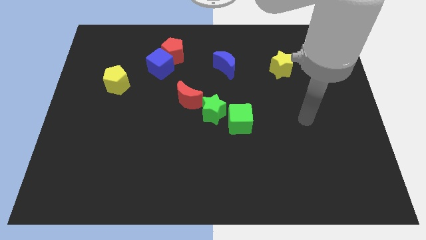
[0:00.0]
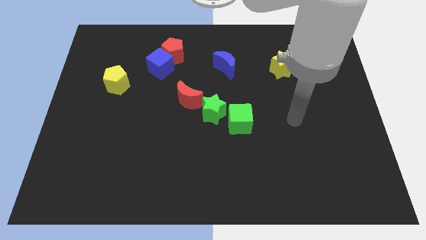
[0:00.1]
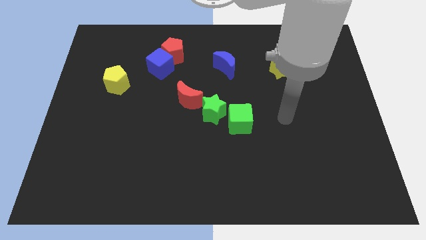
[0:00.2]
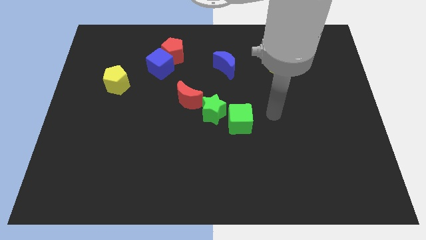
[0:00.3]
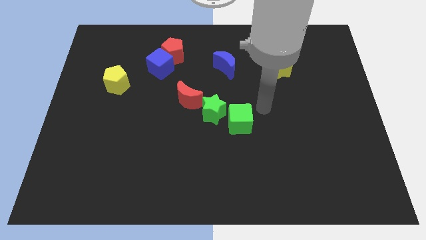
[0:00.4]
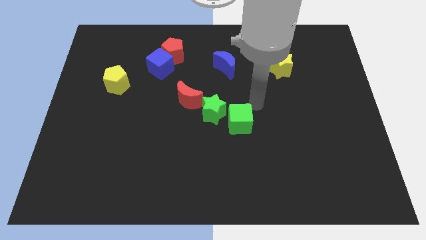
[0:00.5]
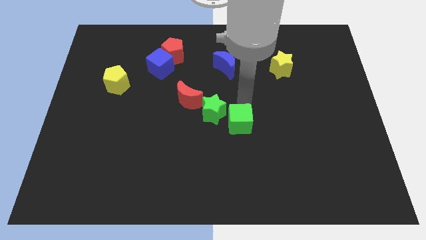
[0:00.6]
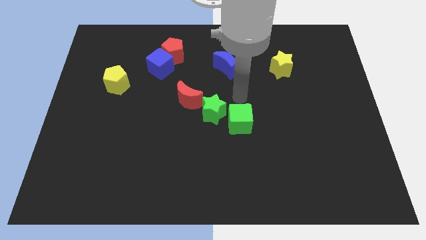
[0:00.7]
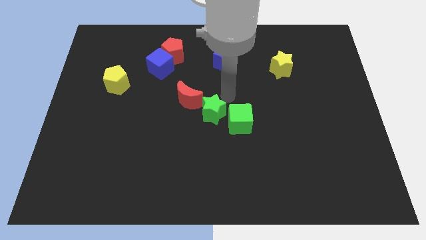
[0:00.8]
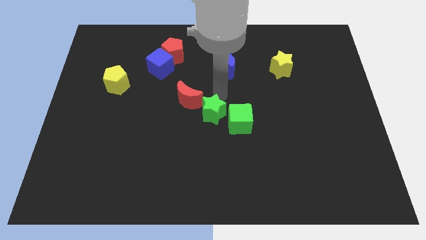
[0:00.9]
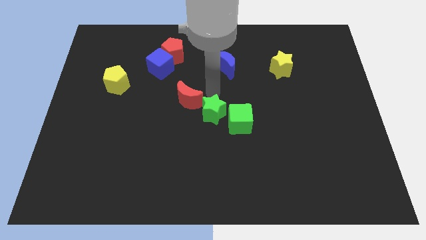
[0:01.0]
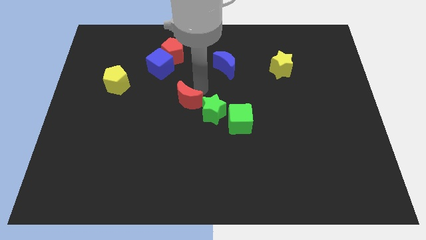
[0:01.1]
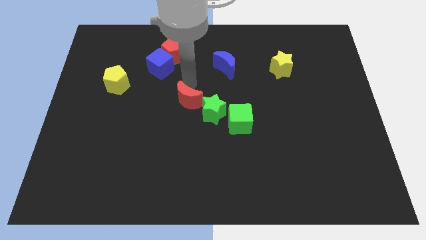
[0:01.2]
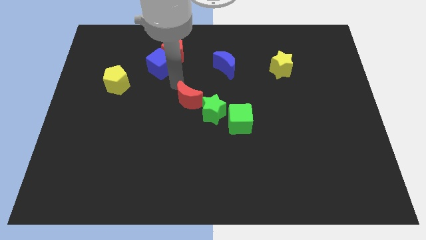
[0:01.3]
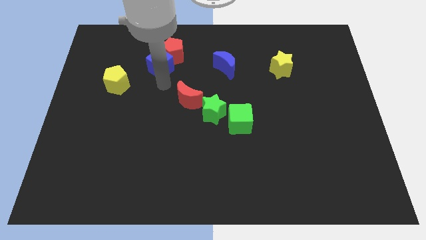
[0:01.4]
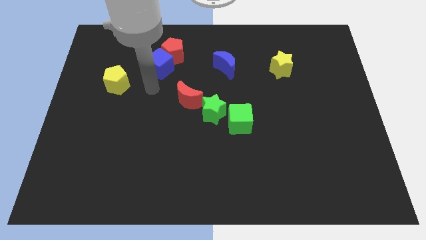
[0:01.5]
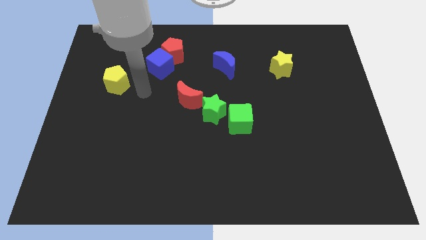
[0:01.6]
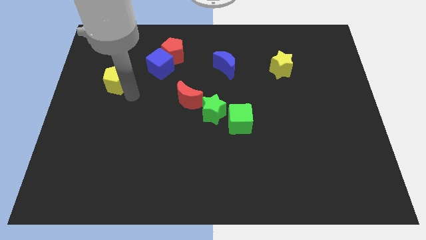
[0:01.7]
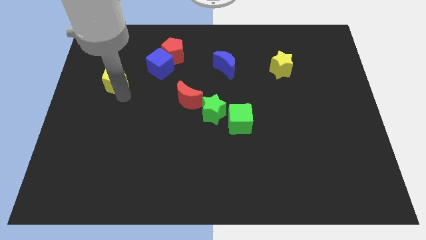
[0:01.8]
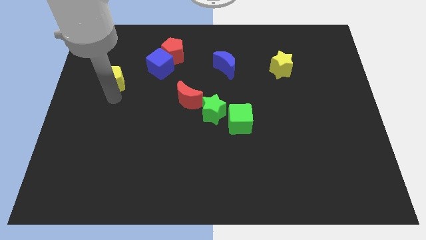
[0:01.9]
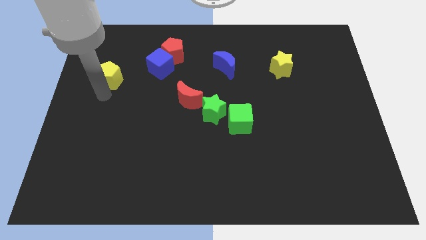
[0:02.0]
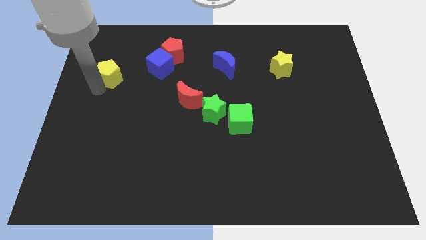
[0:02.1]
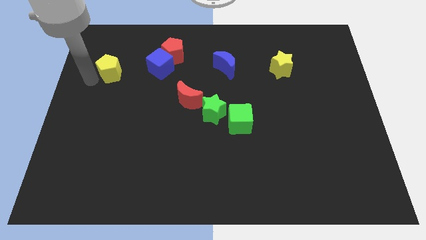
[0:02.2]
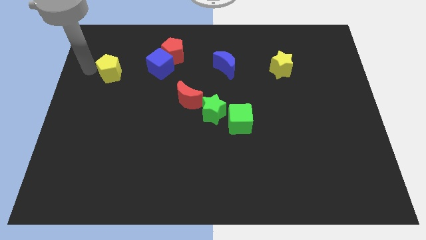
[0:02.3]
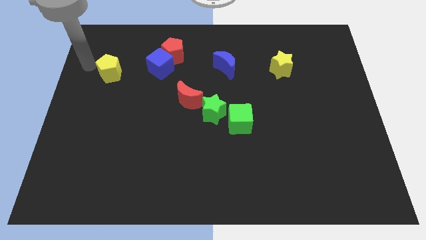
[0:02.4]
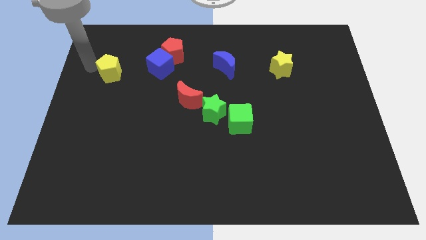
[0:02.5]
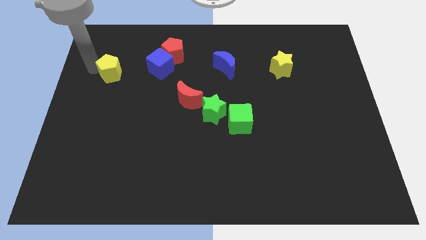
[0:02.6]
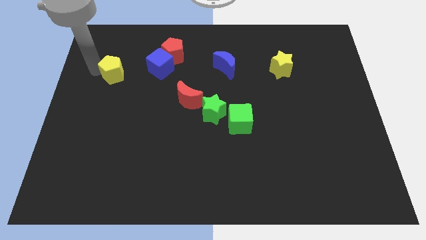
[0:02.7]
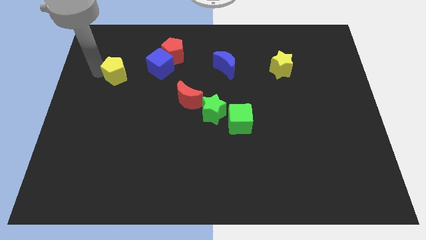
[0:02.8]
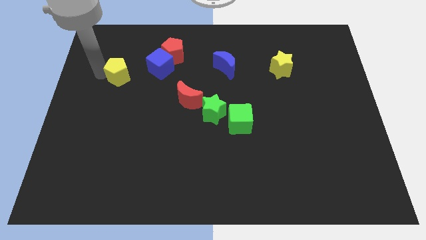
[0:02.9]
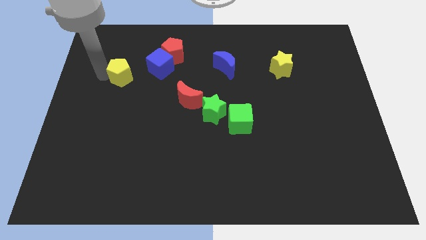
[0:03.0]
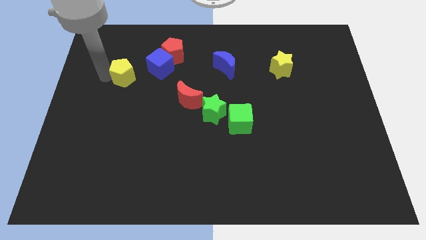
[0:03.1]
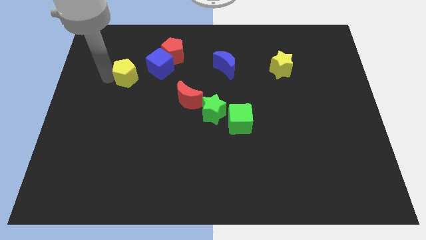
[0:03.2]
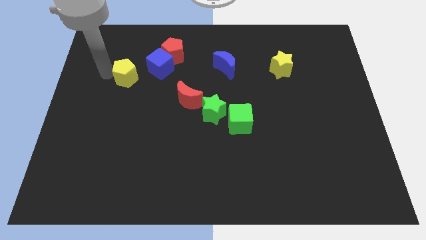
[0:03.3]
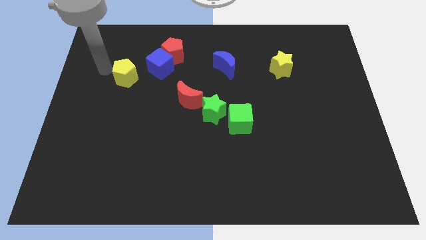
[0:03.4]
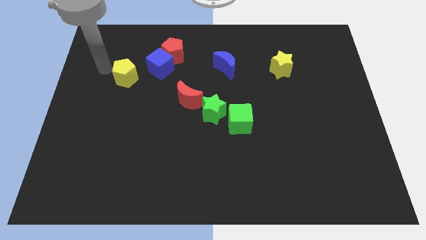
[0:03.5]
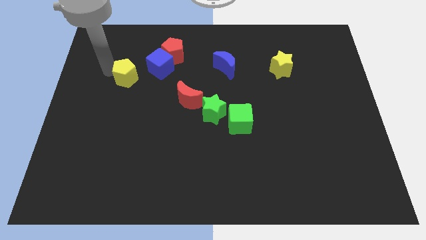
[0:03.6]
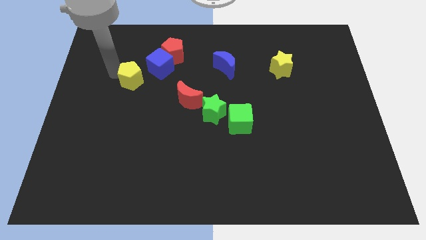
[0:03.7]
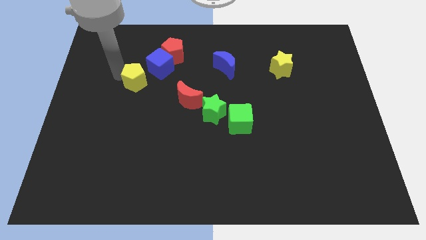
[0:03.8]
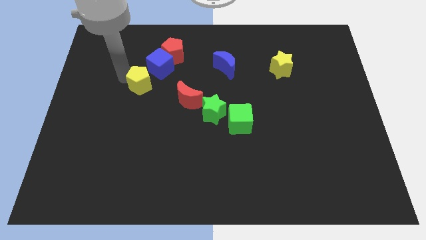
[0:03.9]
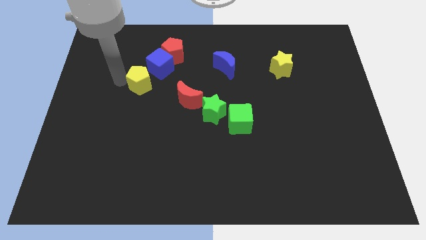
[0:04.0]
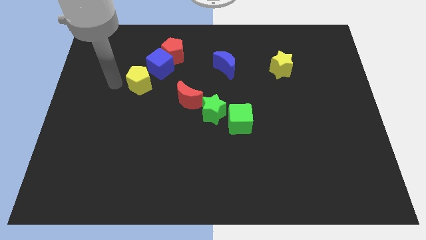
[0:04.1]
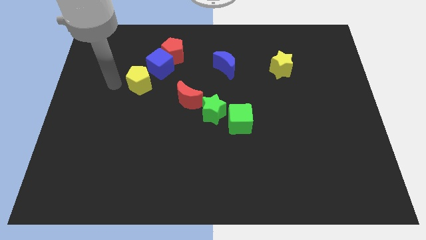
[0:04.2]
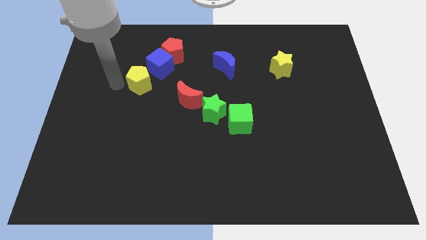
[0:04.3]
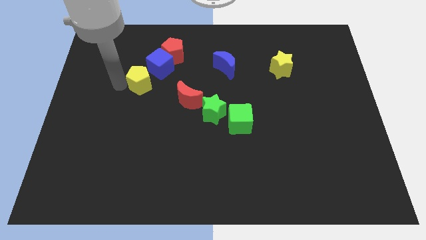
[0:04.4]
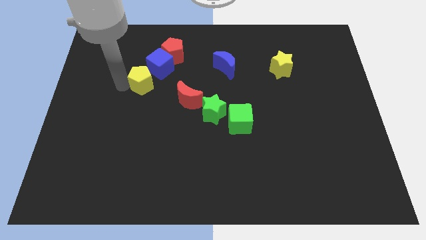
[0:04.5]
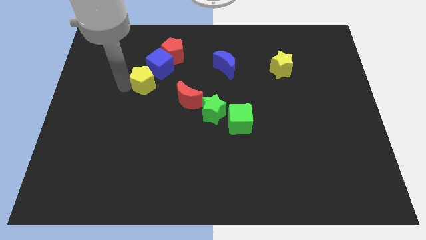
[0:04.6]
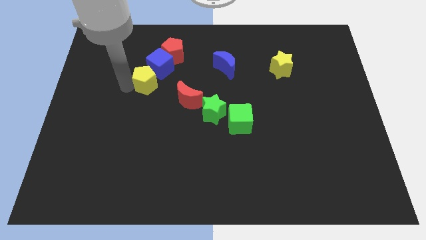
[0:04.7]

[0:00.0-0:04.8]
slide the yellow pentagon to the right somewhat

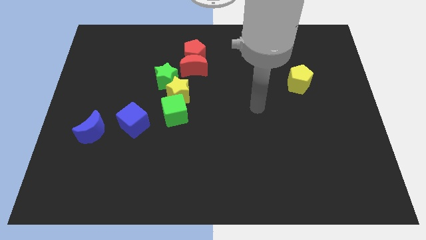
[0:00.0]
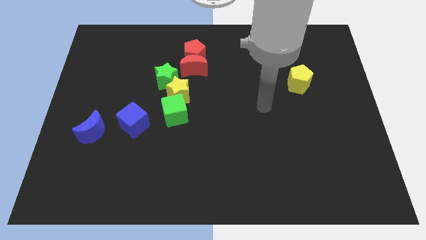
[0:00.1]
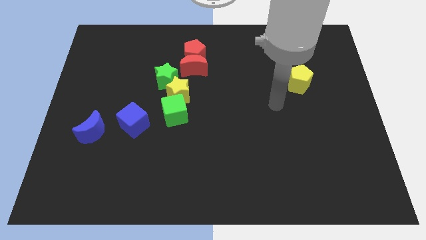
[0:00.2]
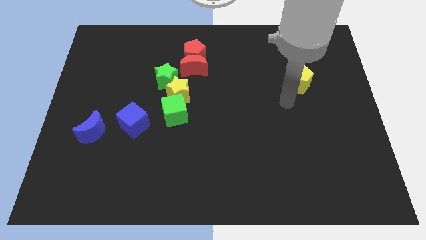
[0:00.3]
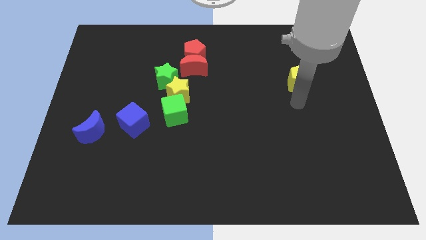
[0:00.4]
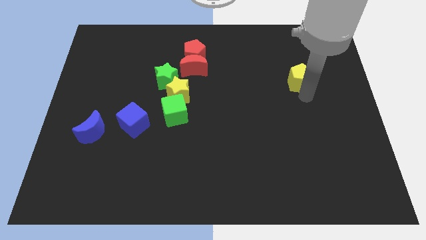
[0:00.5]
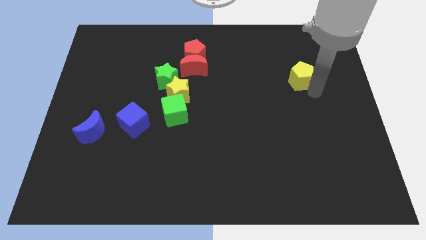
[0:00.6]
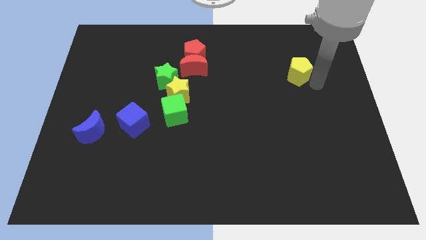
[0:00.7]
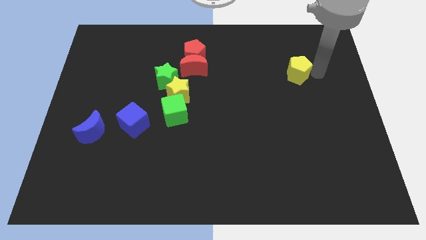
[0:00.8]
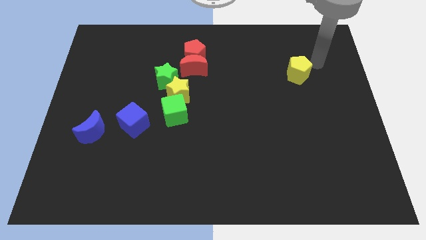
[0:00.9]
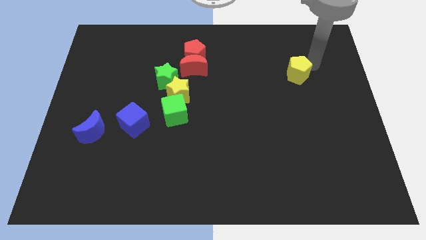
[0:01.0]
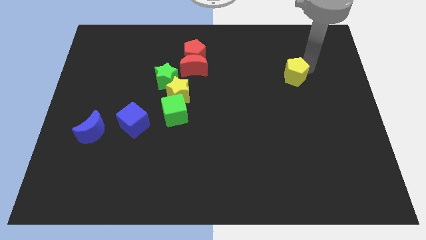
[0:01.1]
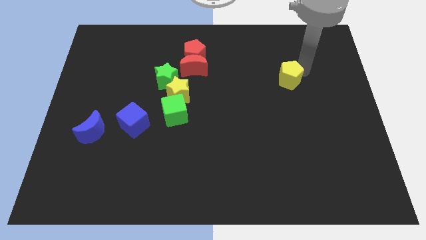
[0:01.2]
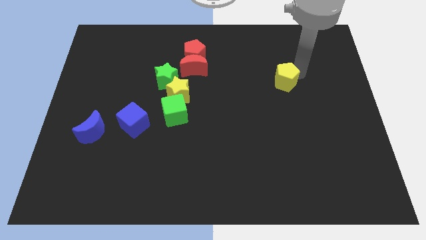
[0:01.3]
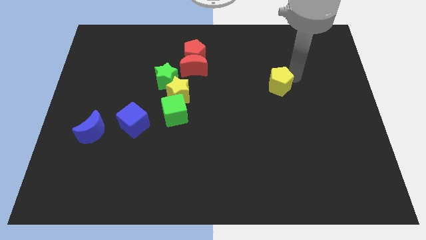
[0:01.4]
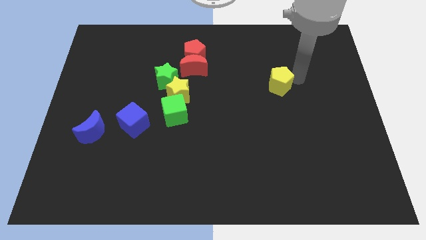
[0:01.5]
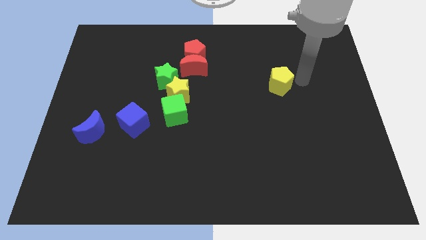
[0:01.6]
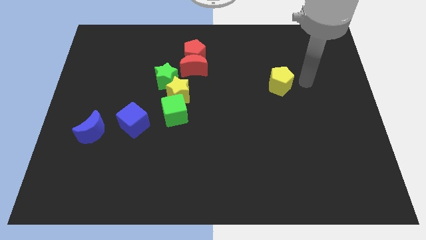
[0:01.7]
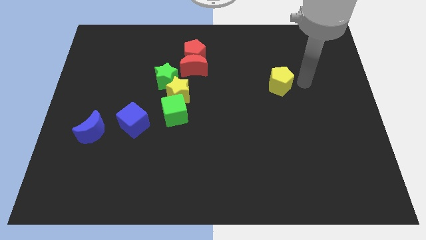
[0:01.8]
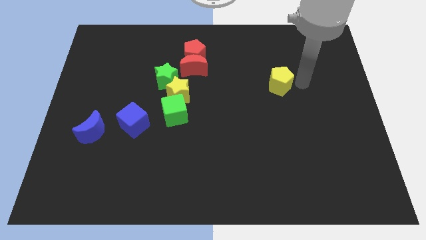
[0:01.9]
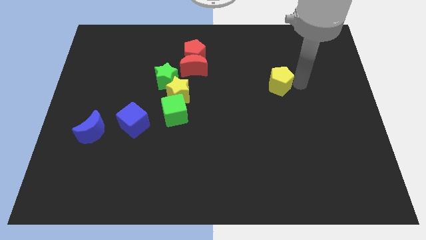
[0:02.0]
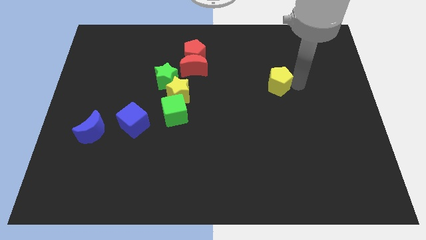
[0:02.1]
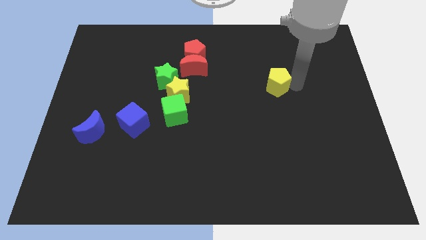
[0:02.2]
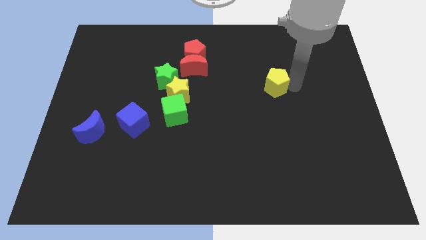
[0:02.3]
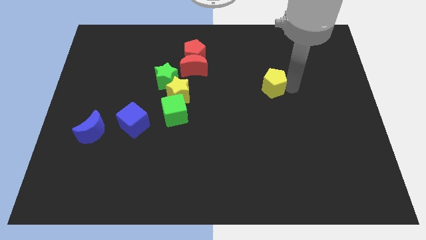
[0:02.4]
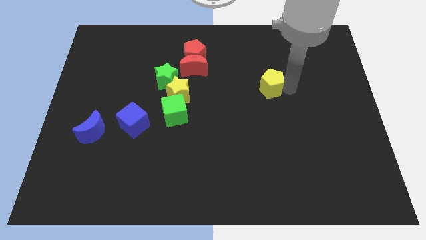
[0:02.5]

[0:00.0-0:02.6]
push the yellow pentagon slightly to the left

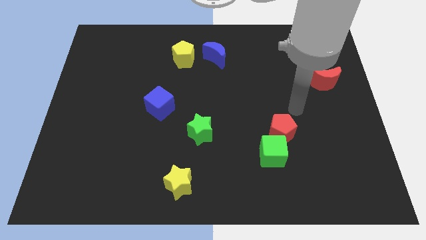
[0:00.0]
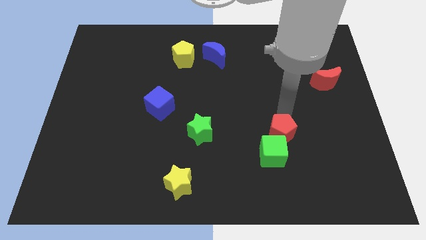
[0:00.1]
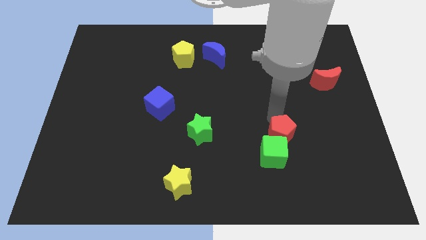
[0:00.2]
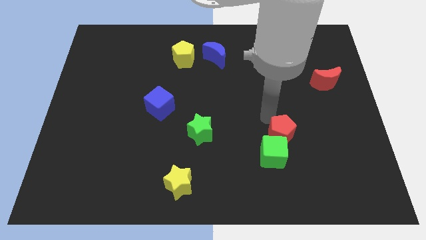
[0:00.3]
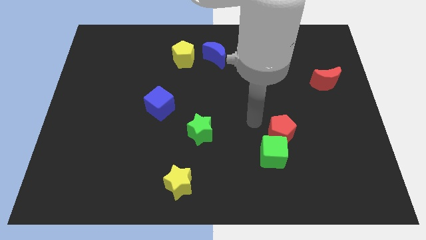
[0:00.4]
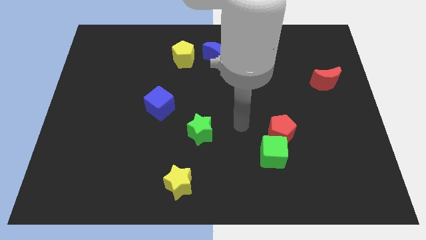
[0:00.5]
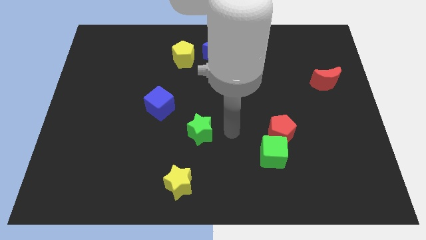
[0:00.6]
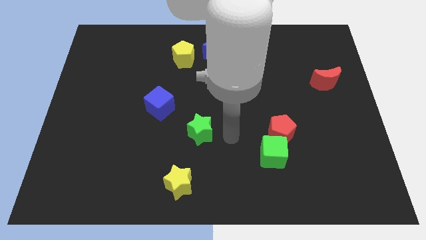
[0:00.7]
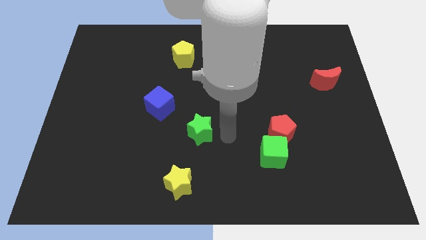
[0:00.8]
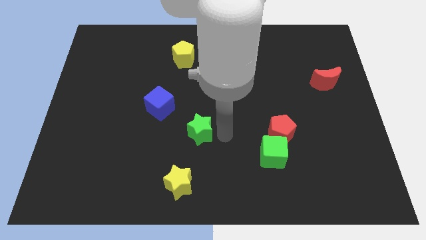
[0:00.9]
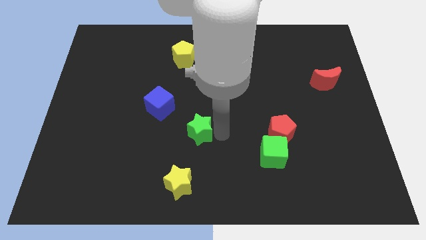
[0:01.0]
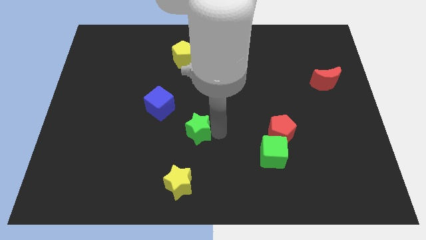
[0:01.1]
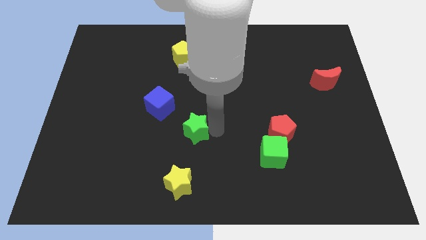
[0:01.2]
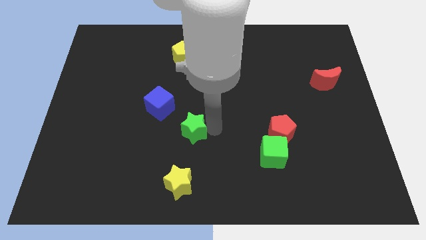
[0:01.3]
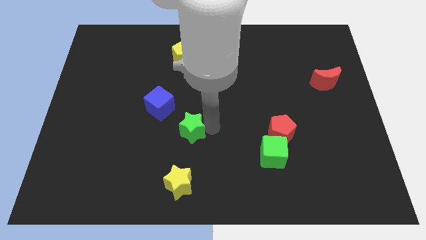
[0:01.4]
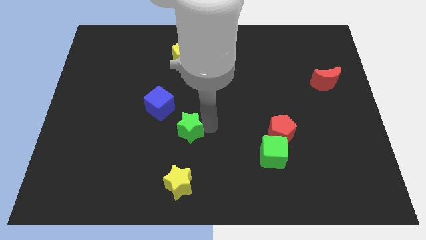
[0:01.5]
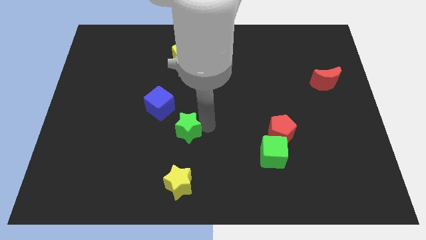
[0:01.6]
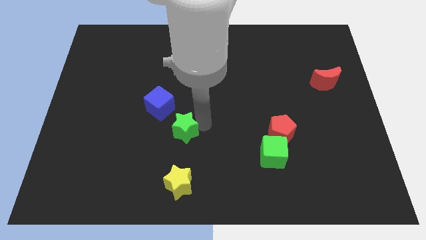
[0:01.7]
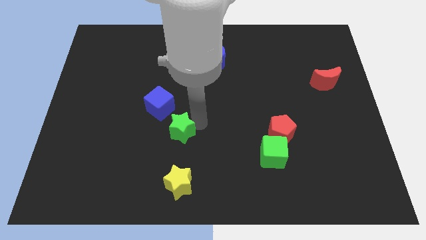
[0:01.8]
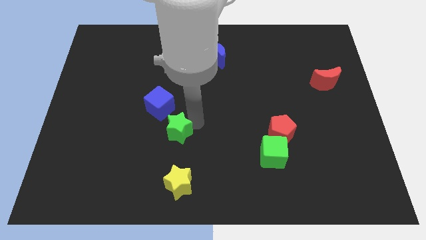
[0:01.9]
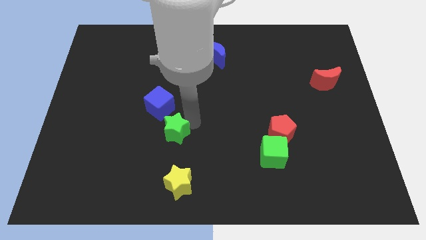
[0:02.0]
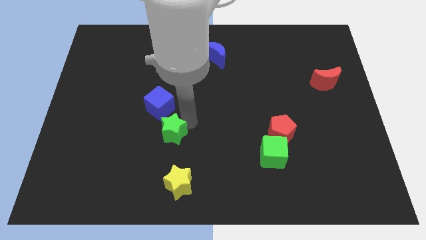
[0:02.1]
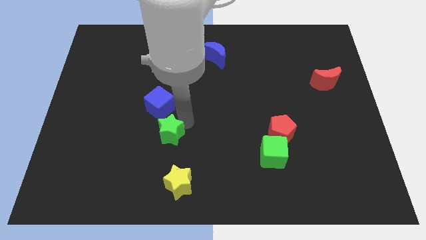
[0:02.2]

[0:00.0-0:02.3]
slightly push the green star to the left
